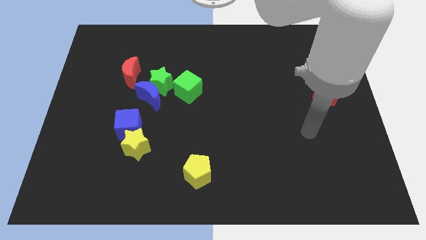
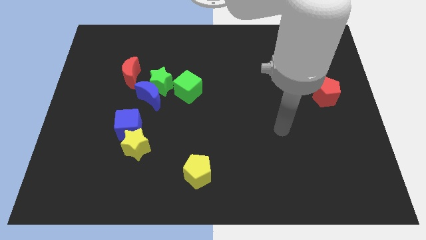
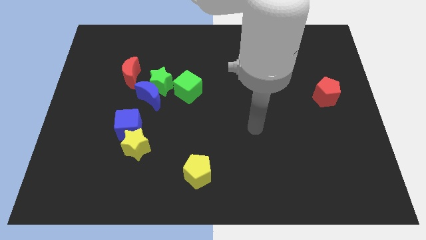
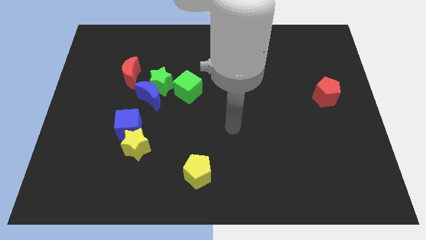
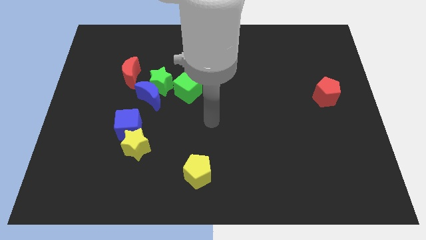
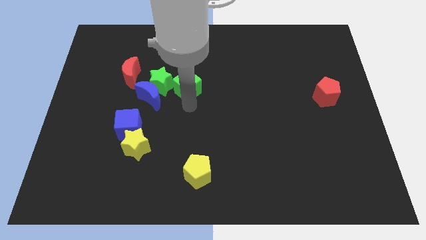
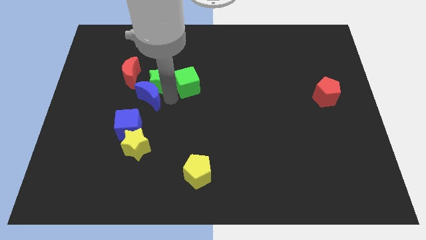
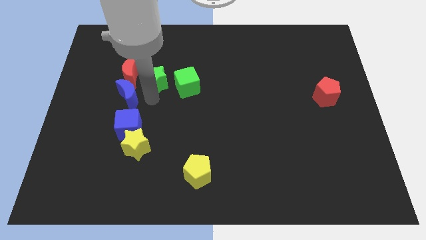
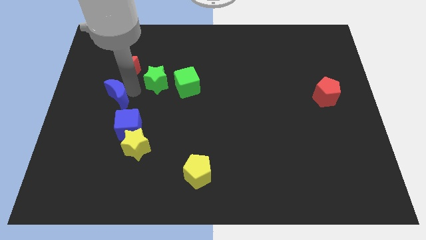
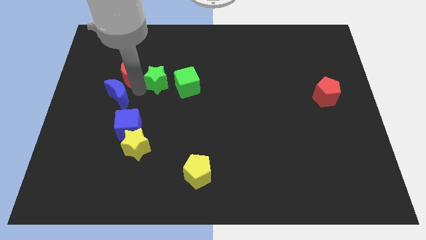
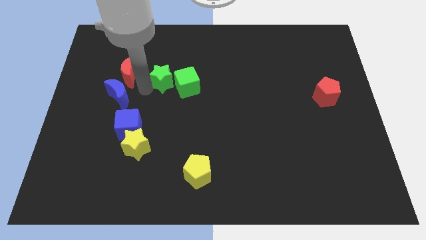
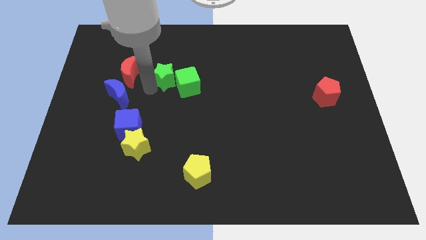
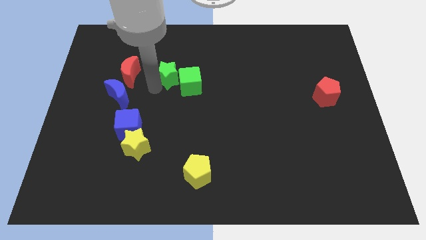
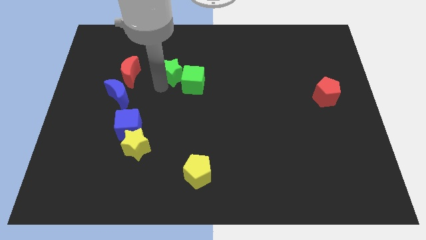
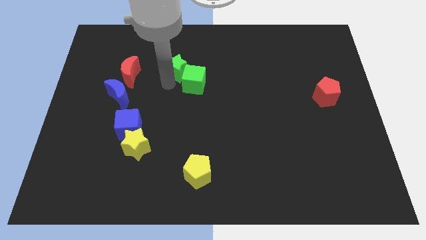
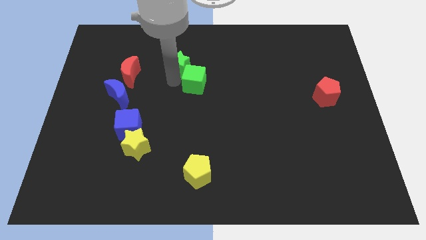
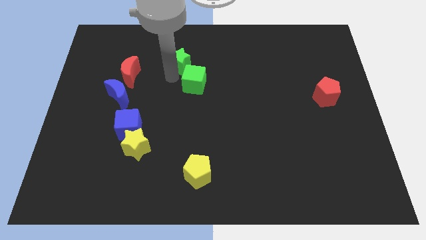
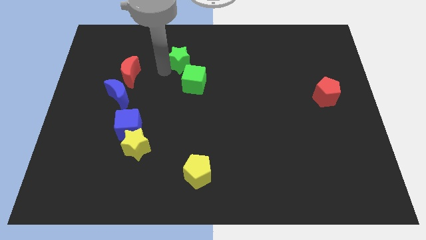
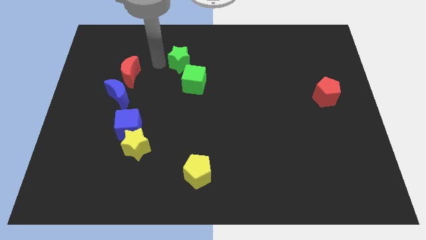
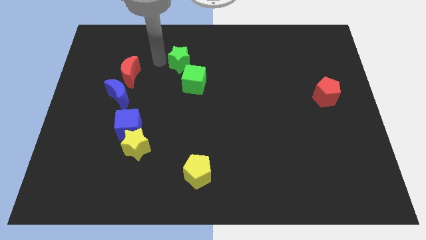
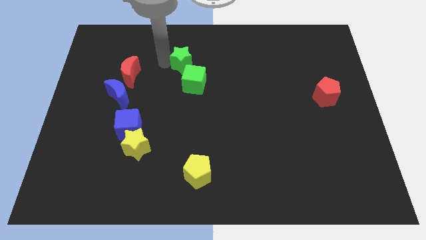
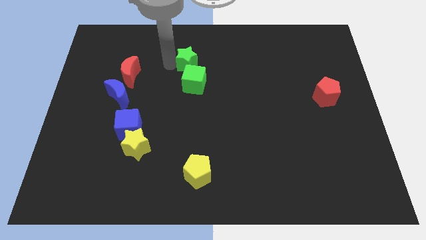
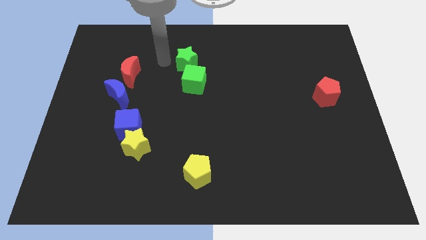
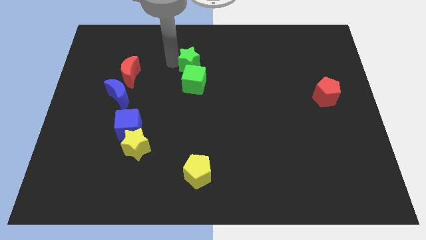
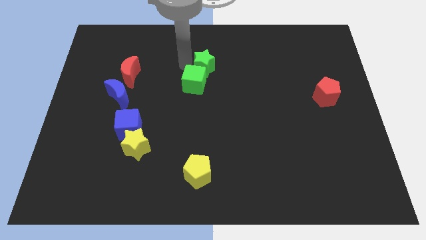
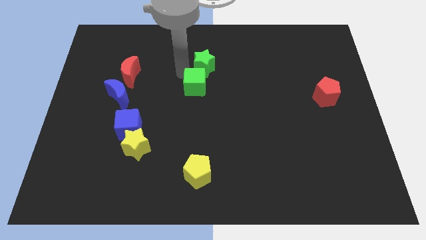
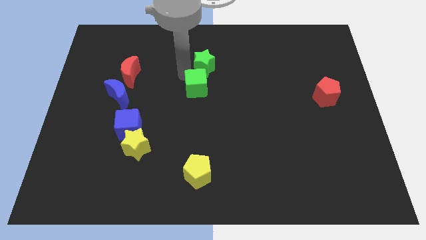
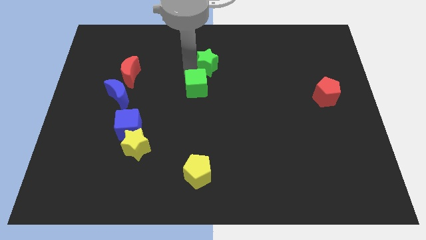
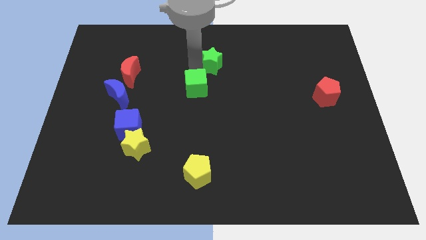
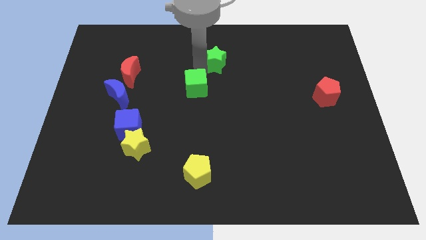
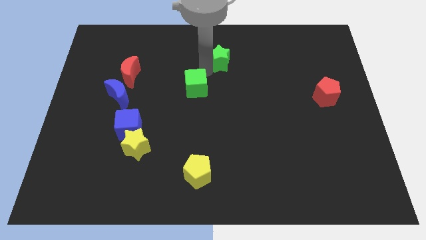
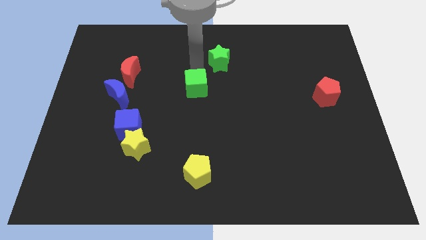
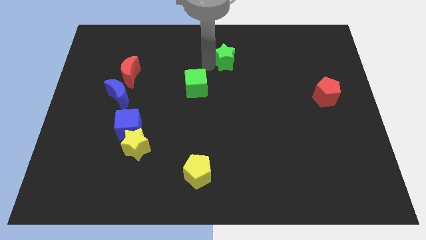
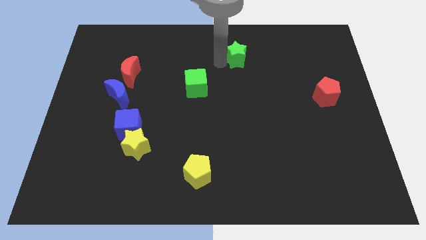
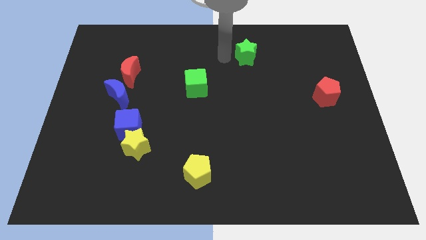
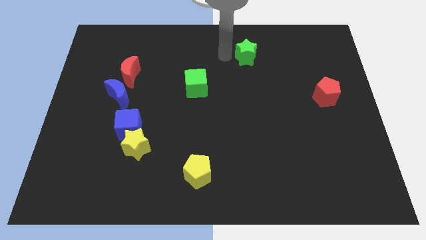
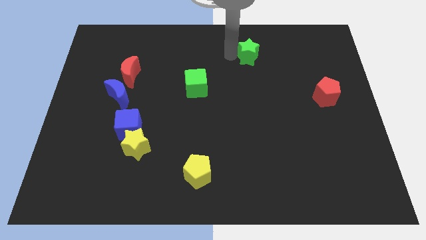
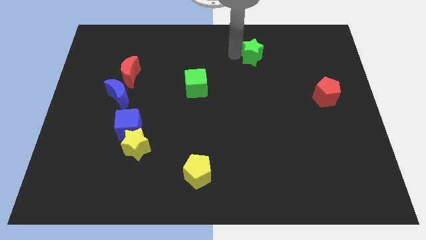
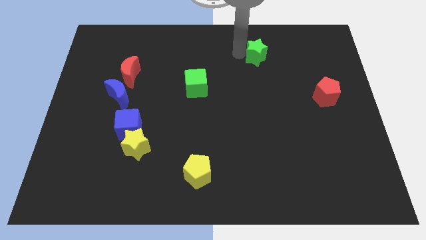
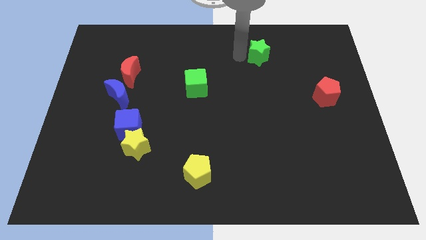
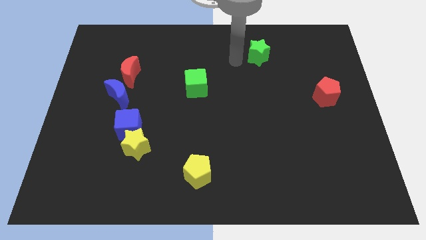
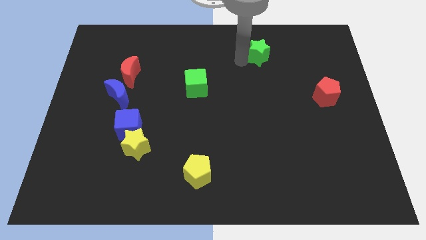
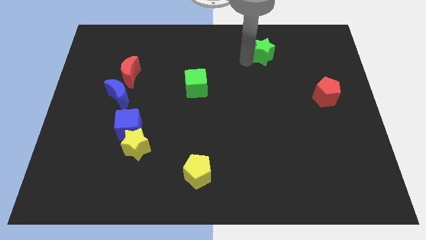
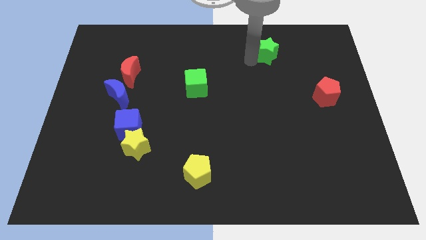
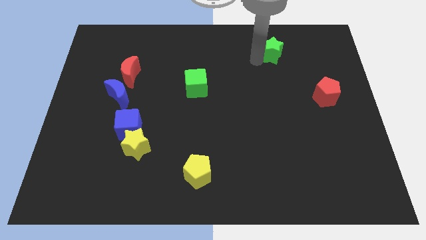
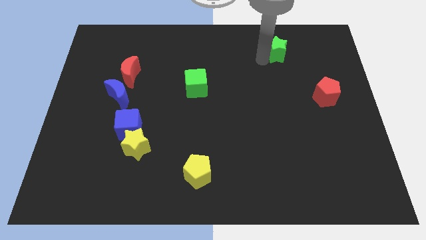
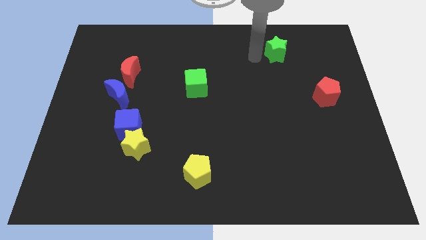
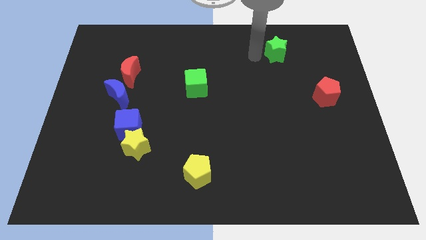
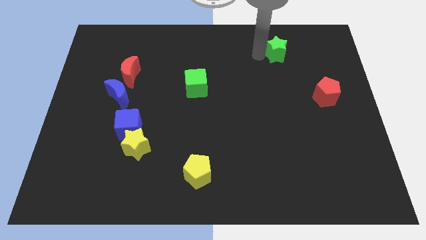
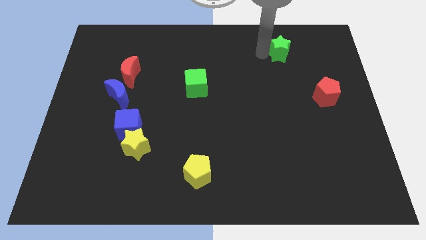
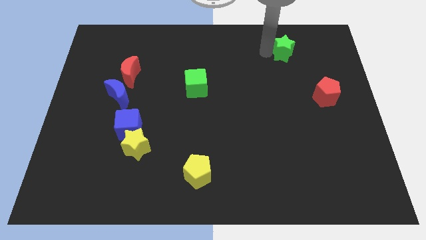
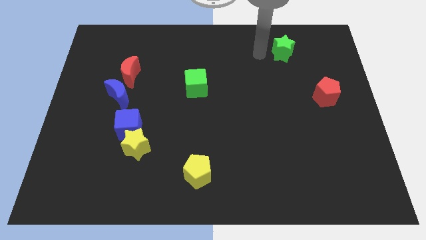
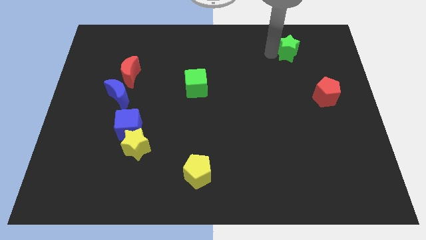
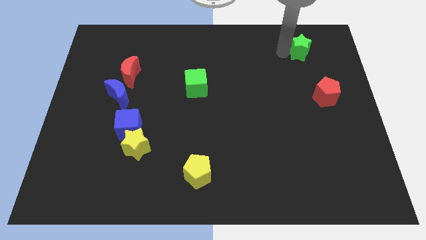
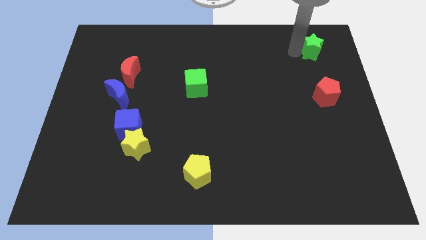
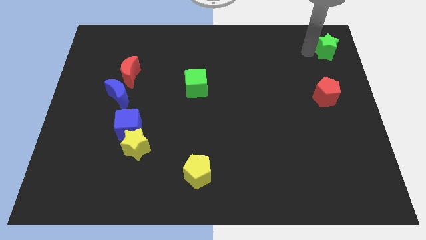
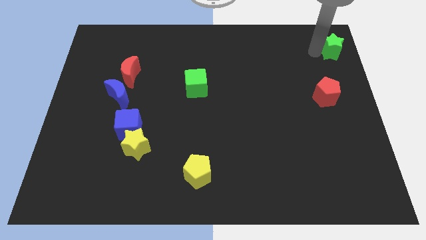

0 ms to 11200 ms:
move the green star to the upper right corner

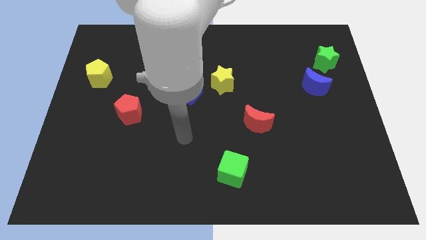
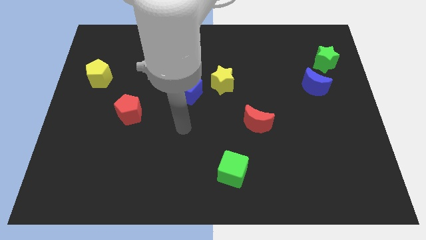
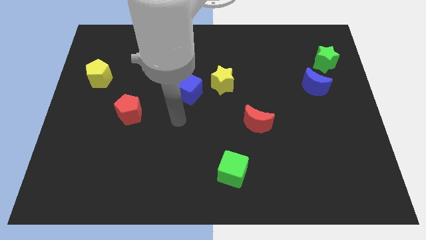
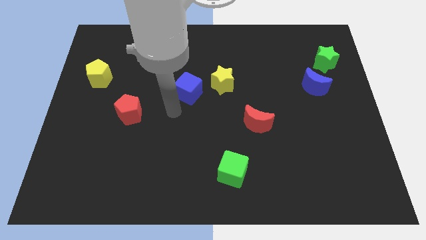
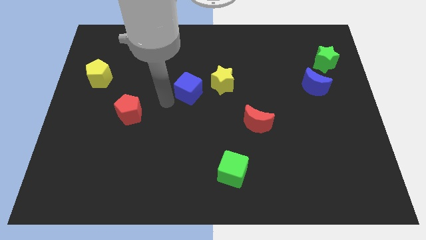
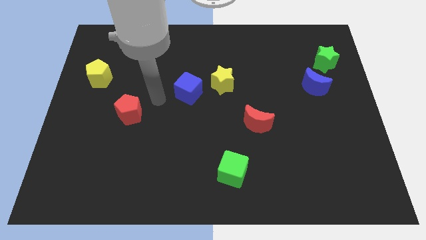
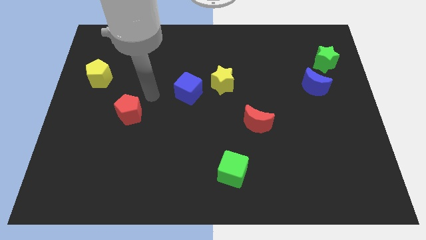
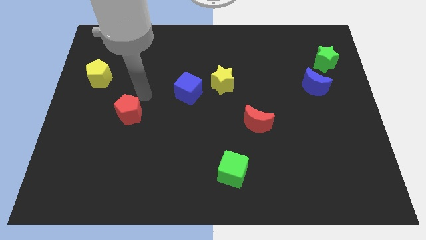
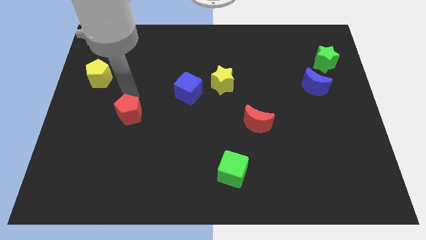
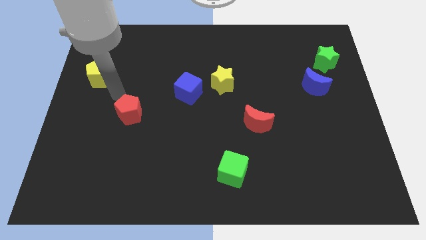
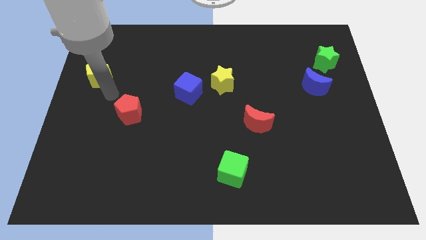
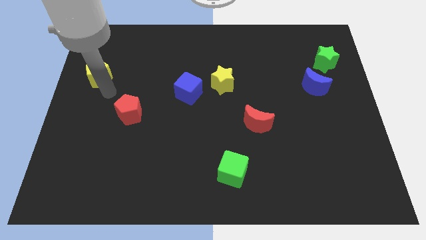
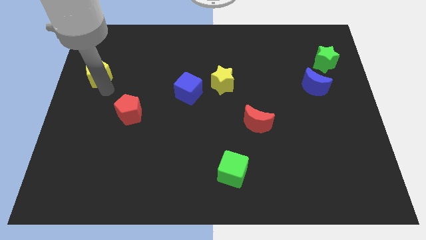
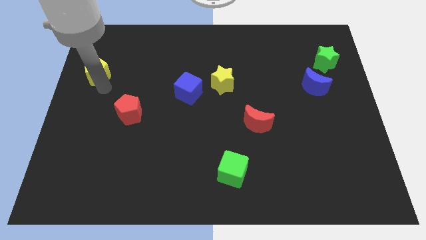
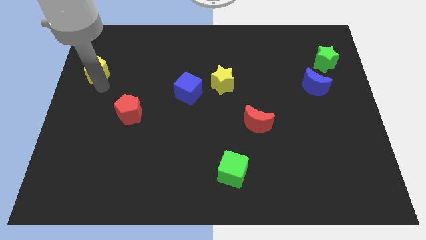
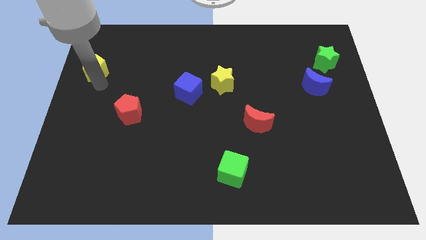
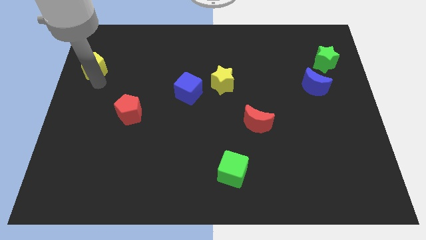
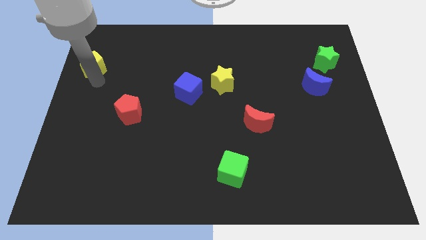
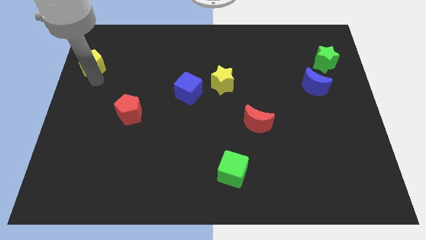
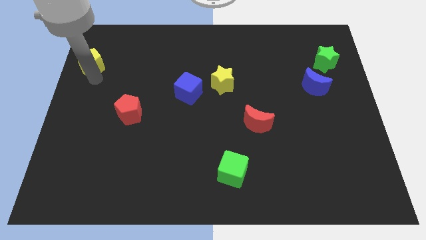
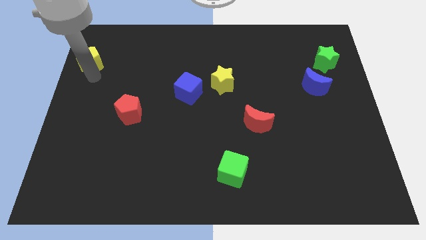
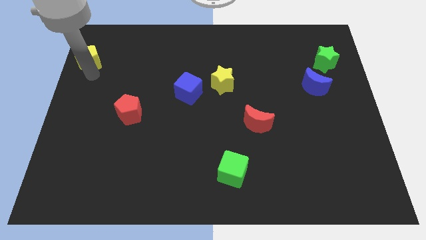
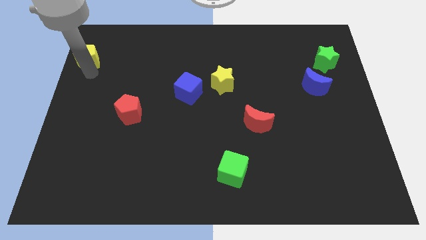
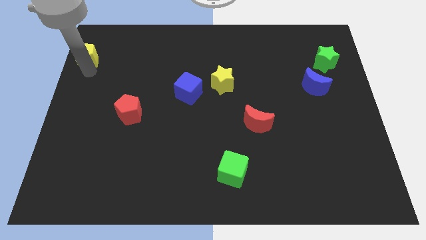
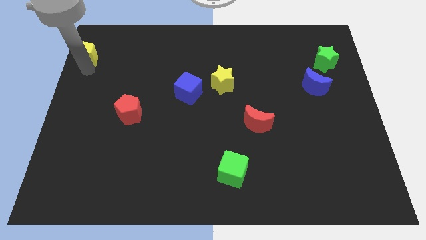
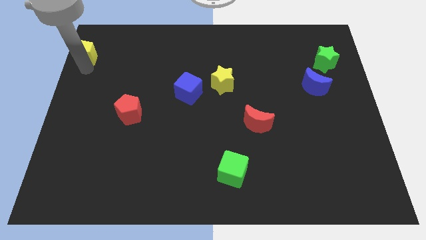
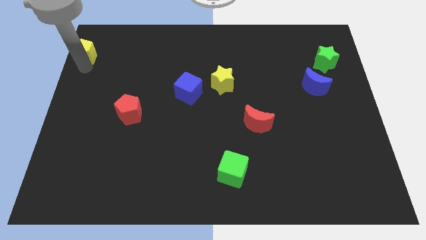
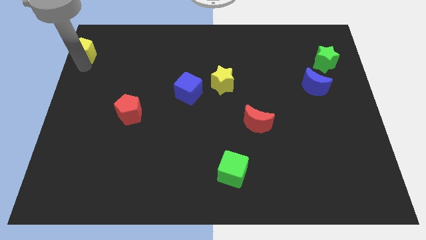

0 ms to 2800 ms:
move the yellow pentagon to the top left
